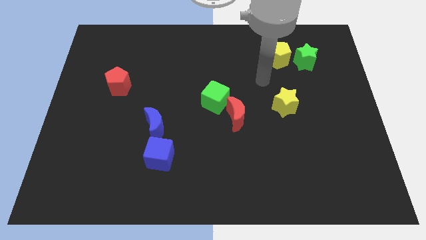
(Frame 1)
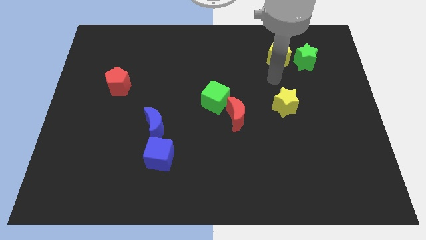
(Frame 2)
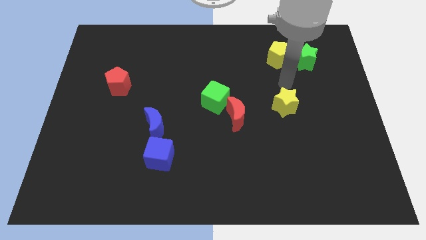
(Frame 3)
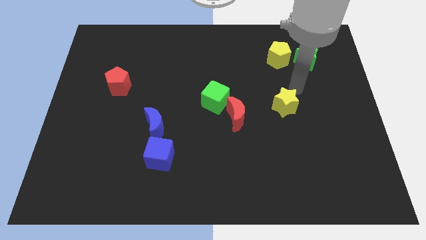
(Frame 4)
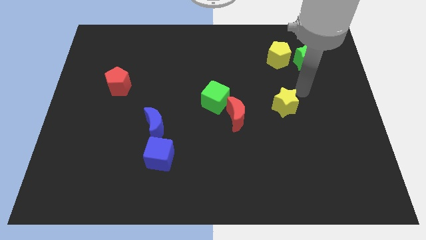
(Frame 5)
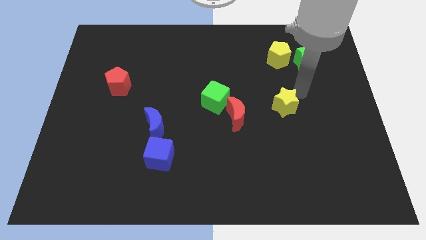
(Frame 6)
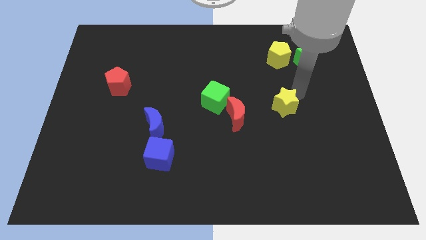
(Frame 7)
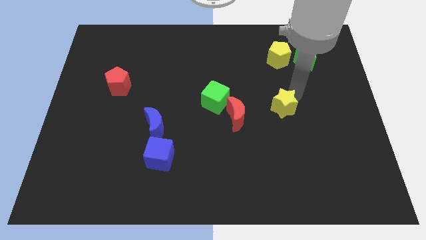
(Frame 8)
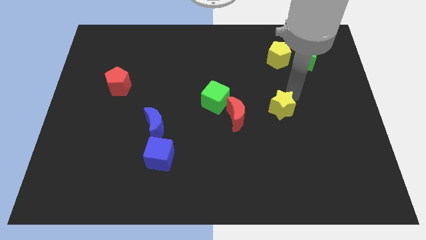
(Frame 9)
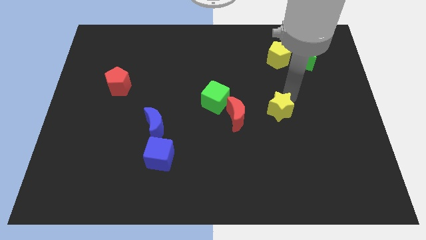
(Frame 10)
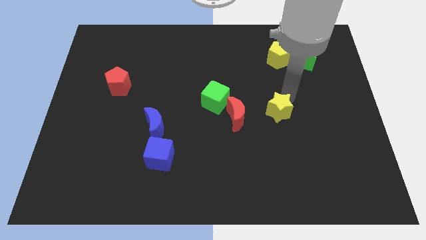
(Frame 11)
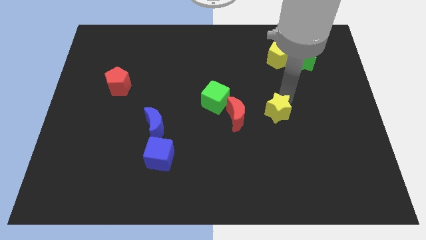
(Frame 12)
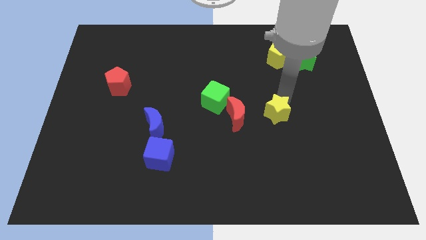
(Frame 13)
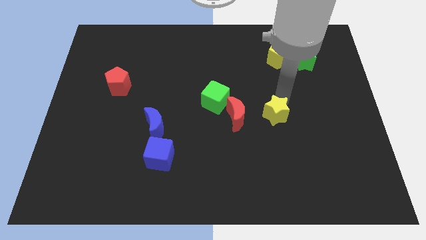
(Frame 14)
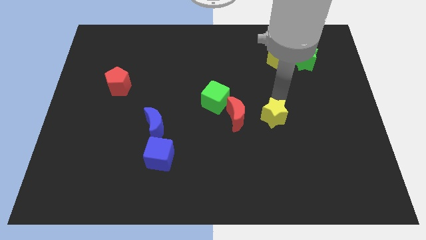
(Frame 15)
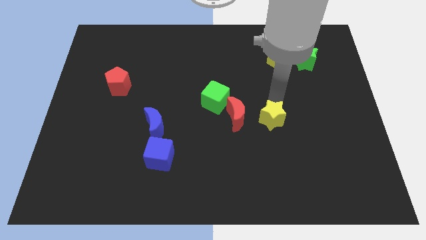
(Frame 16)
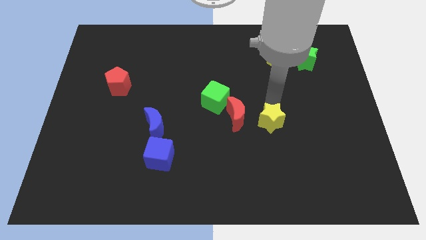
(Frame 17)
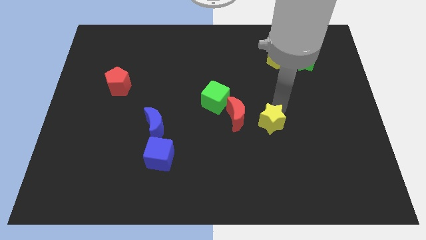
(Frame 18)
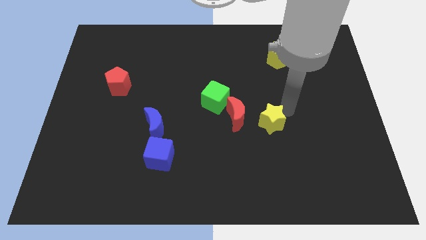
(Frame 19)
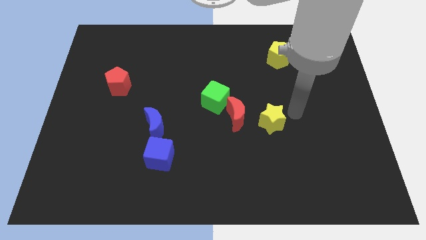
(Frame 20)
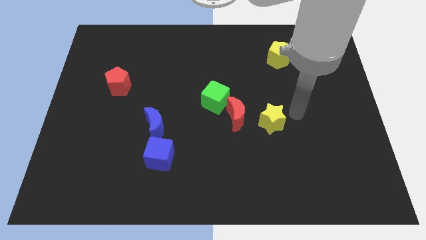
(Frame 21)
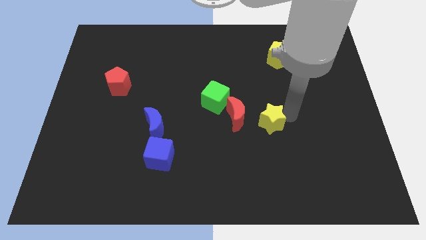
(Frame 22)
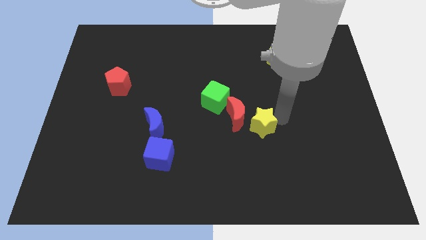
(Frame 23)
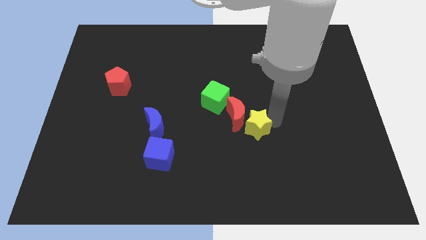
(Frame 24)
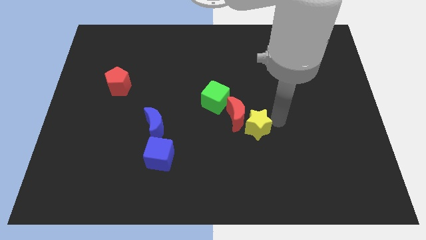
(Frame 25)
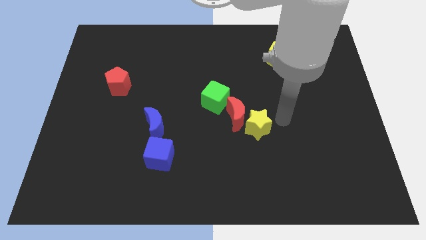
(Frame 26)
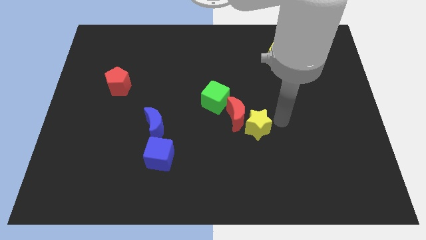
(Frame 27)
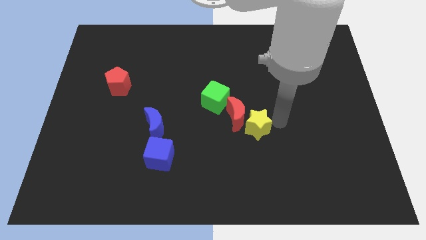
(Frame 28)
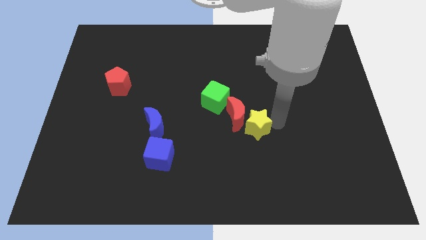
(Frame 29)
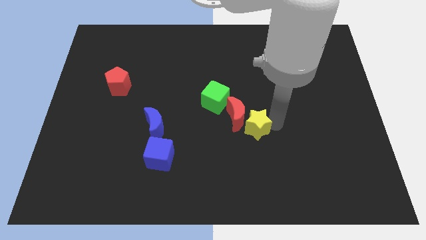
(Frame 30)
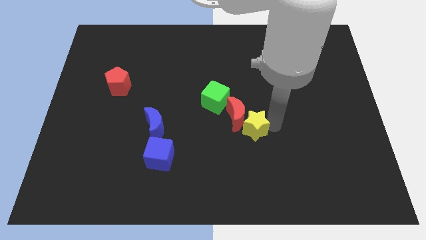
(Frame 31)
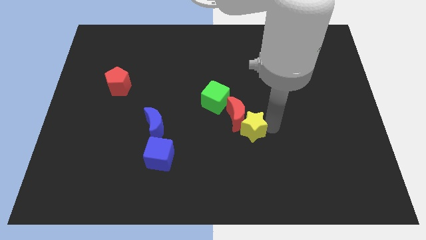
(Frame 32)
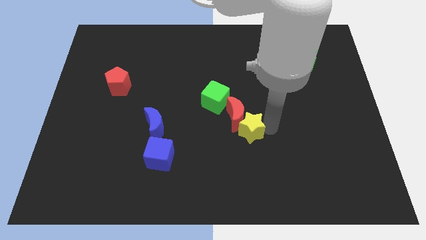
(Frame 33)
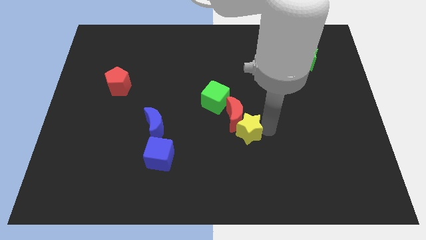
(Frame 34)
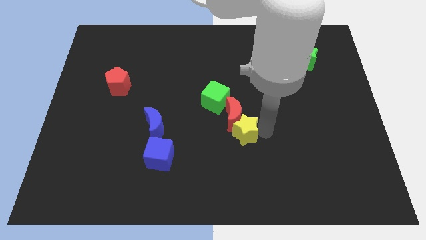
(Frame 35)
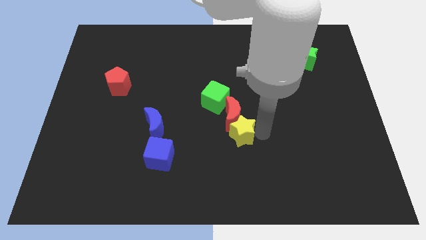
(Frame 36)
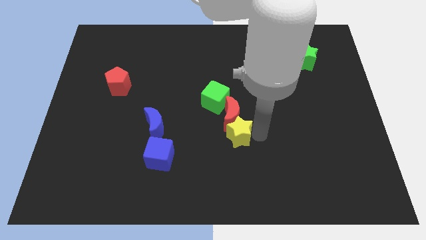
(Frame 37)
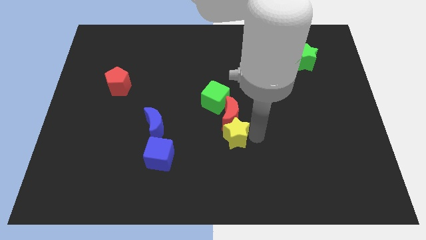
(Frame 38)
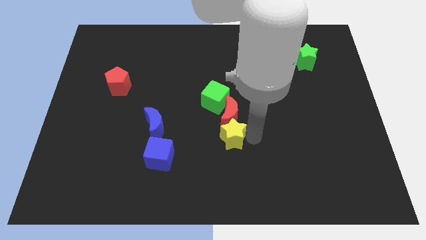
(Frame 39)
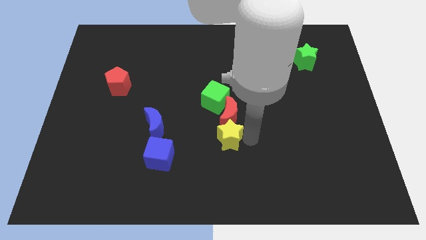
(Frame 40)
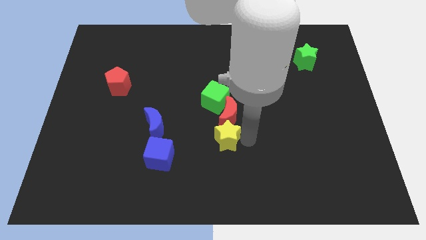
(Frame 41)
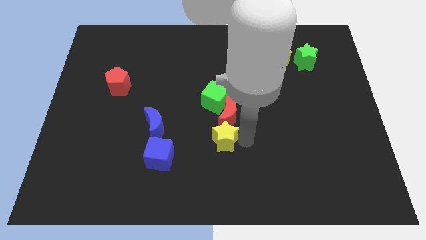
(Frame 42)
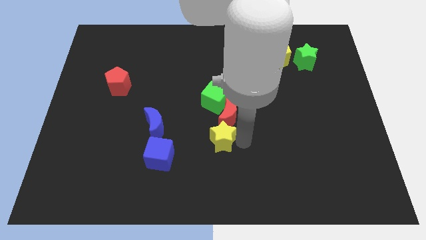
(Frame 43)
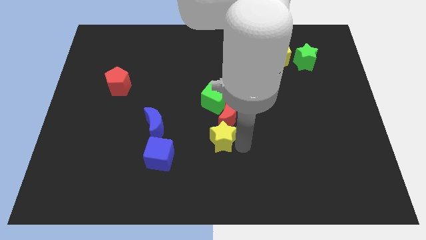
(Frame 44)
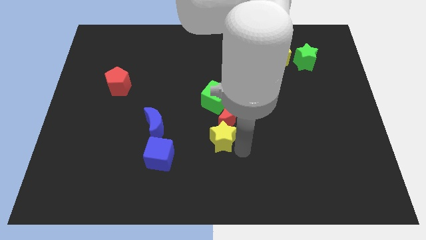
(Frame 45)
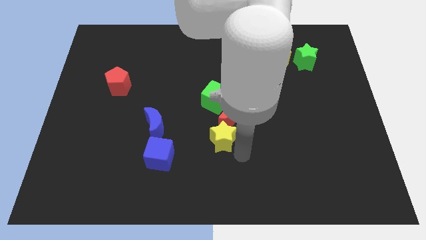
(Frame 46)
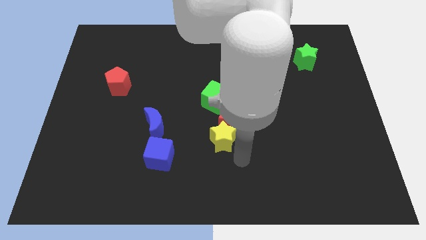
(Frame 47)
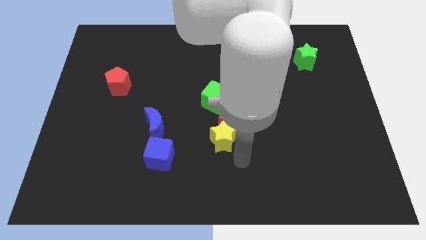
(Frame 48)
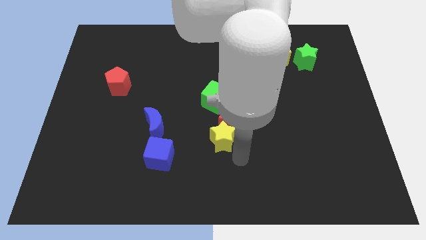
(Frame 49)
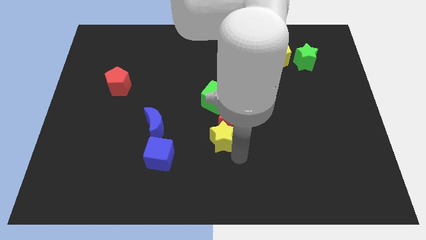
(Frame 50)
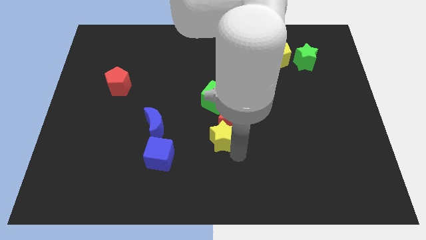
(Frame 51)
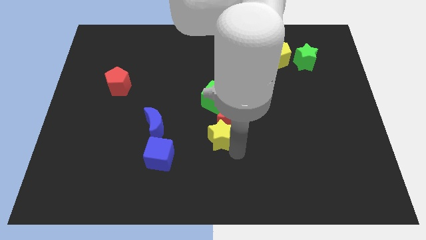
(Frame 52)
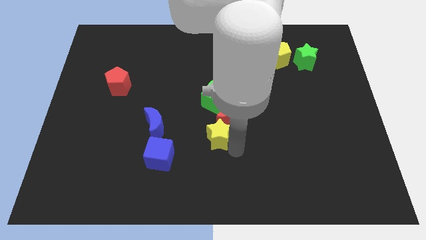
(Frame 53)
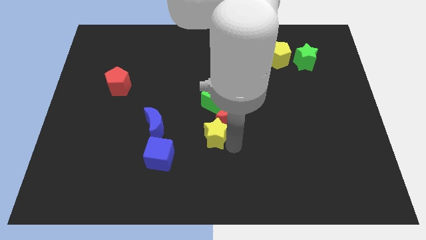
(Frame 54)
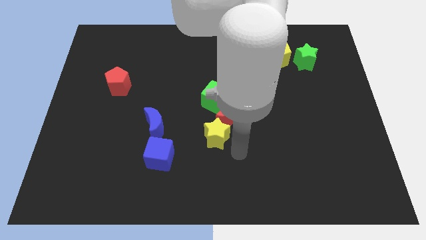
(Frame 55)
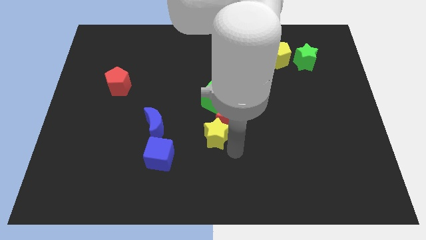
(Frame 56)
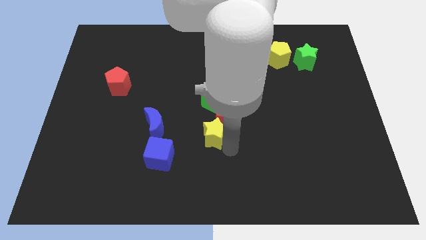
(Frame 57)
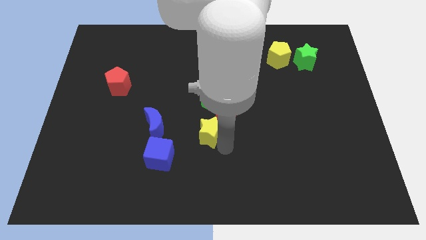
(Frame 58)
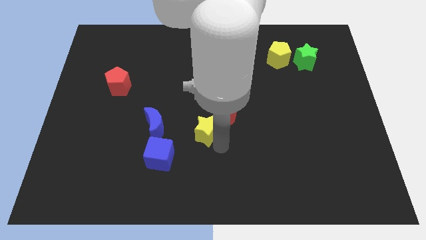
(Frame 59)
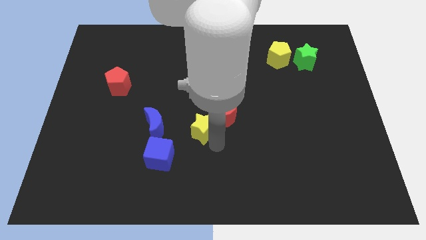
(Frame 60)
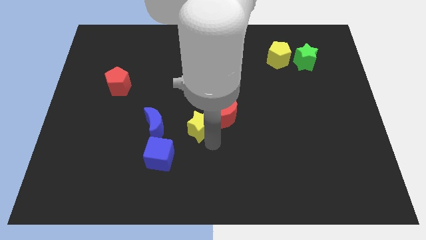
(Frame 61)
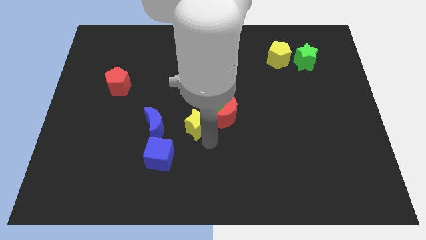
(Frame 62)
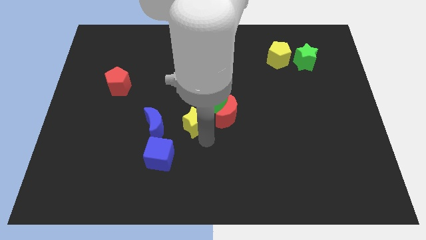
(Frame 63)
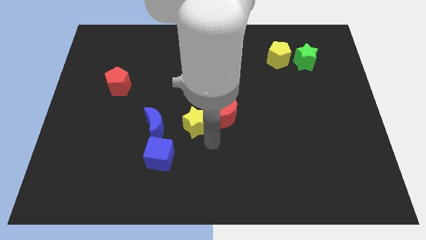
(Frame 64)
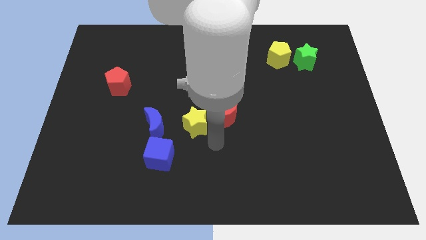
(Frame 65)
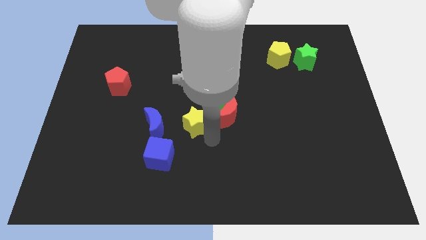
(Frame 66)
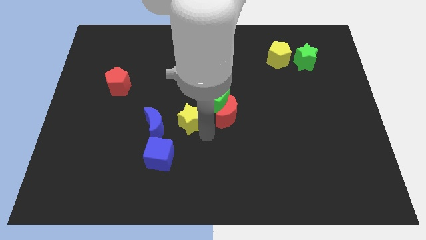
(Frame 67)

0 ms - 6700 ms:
put the yellow star to the top right side of the blue moon

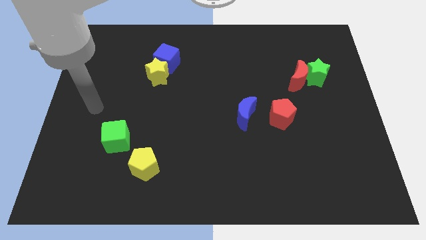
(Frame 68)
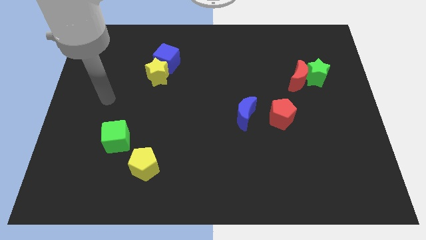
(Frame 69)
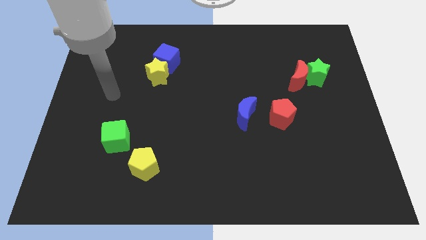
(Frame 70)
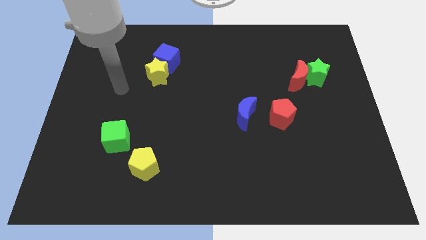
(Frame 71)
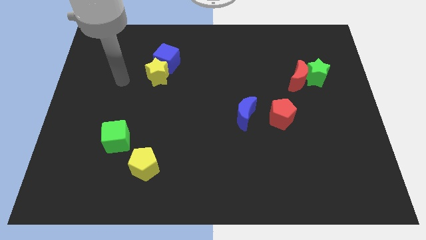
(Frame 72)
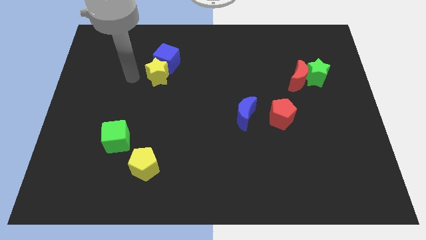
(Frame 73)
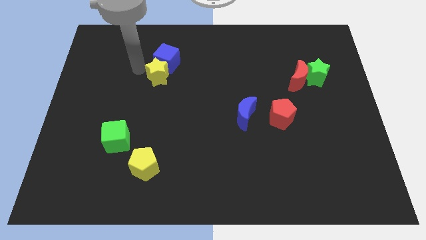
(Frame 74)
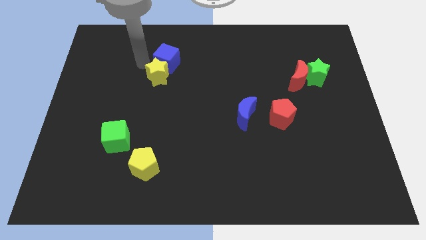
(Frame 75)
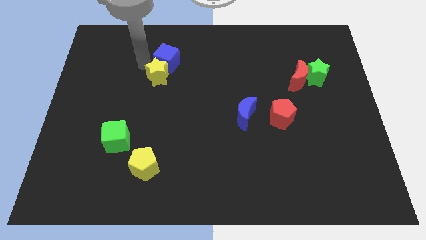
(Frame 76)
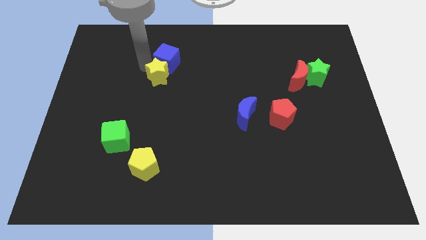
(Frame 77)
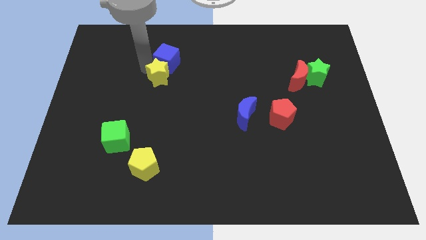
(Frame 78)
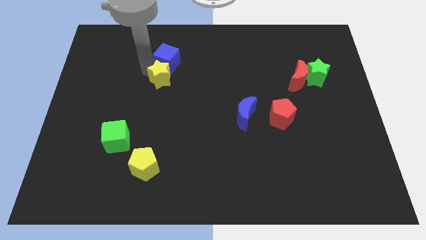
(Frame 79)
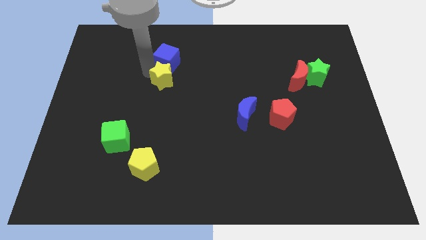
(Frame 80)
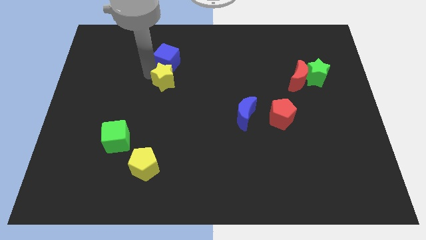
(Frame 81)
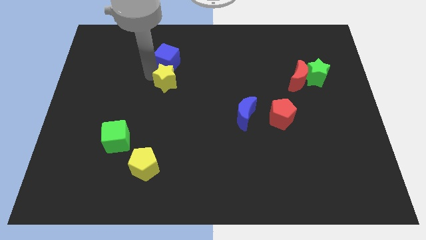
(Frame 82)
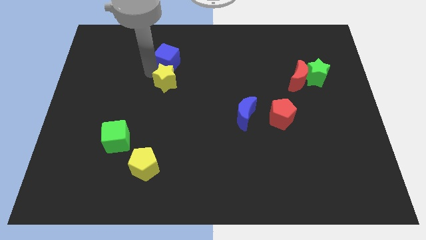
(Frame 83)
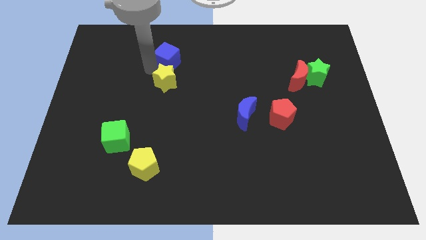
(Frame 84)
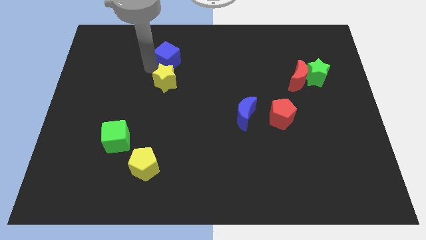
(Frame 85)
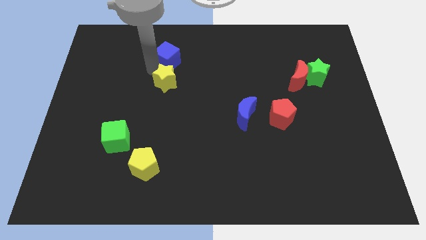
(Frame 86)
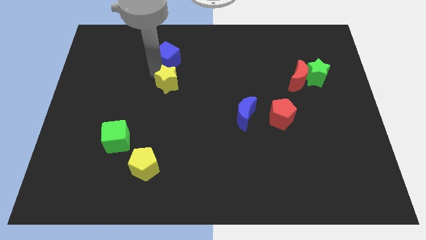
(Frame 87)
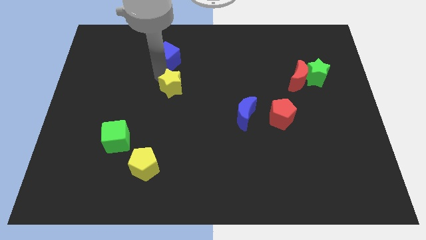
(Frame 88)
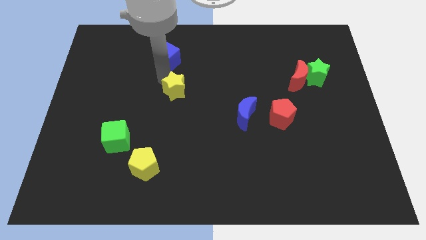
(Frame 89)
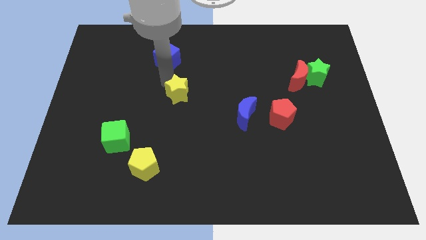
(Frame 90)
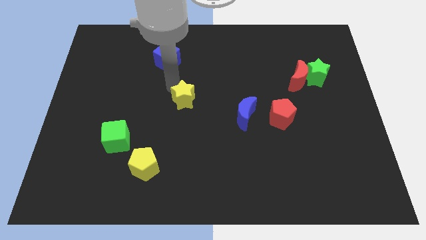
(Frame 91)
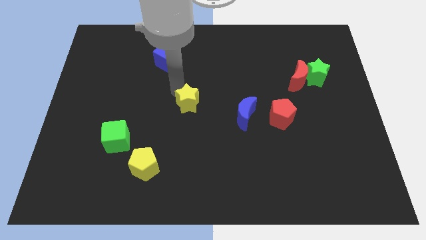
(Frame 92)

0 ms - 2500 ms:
slide the yellow star just left of the blue moon
